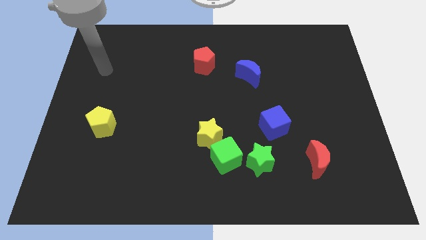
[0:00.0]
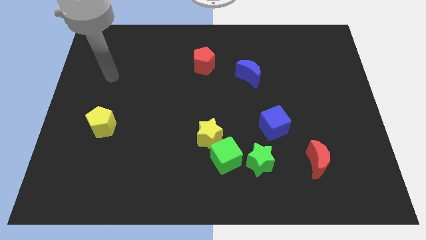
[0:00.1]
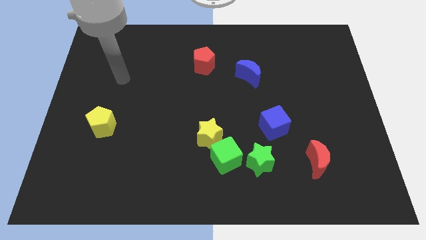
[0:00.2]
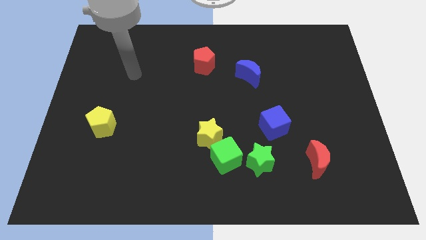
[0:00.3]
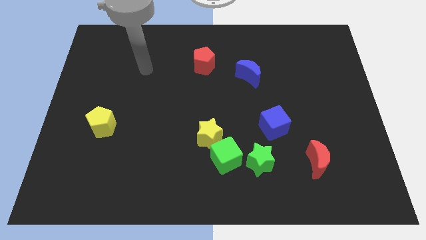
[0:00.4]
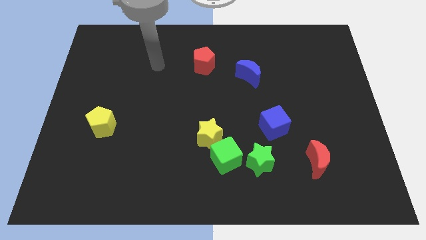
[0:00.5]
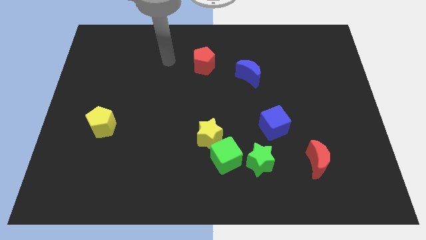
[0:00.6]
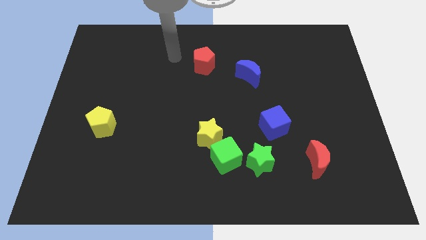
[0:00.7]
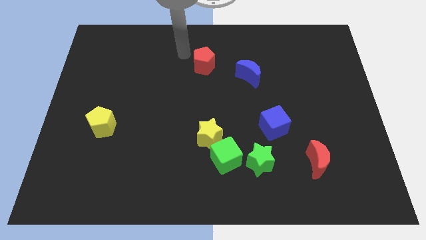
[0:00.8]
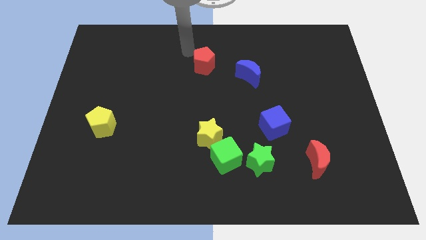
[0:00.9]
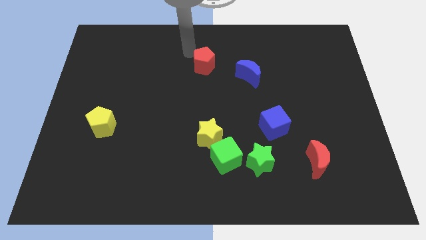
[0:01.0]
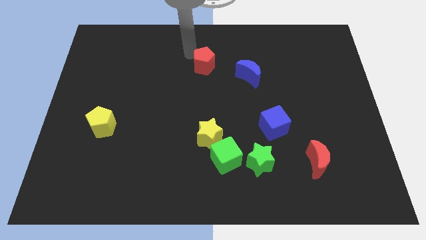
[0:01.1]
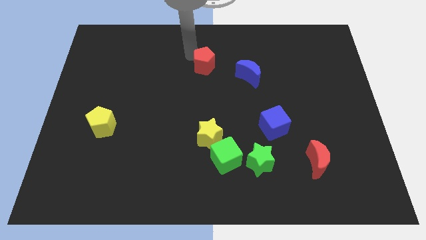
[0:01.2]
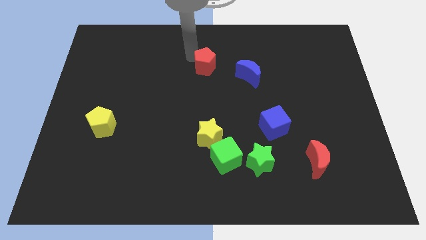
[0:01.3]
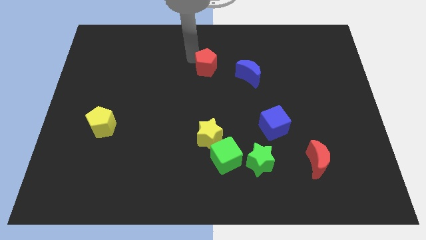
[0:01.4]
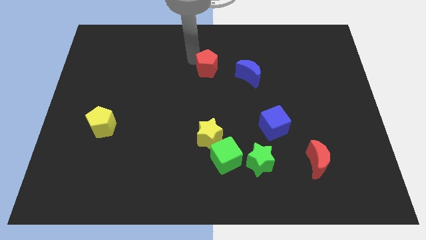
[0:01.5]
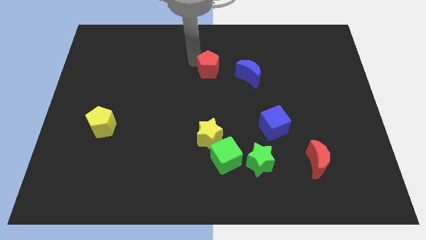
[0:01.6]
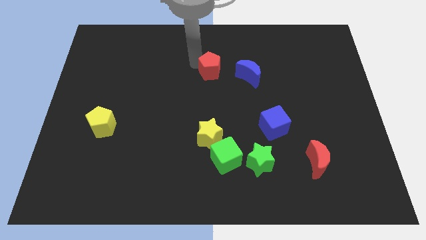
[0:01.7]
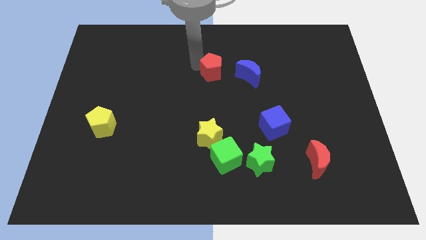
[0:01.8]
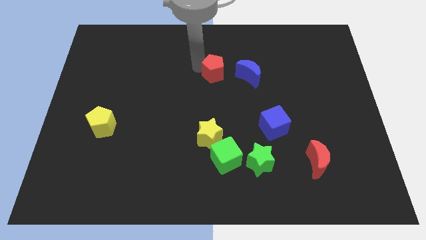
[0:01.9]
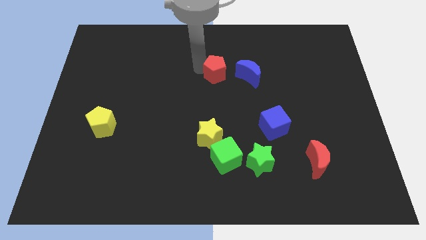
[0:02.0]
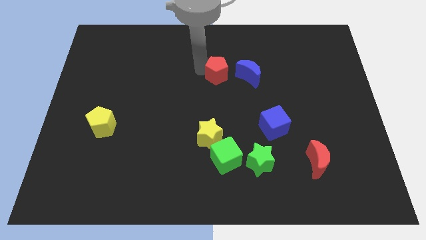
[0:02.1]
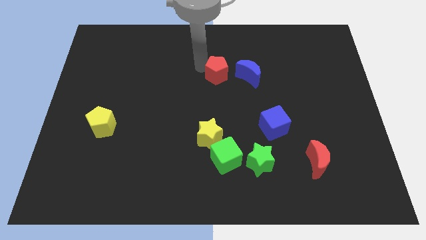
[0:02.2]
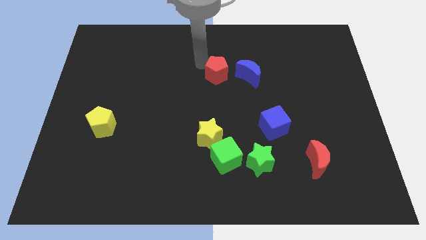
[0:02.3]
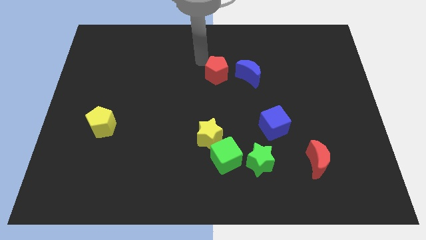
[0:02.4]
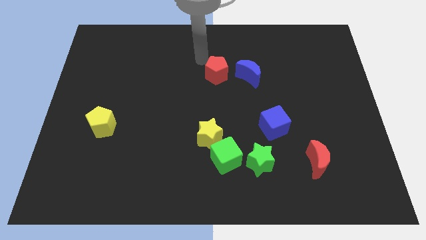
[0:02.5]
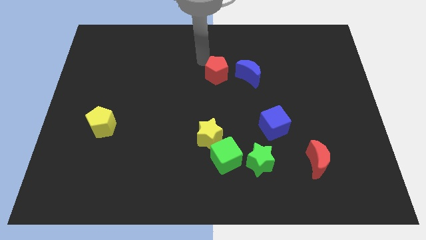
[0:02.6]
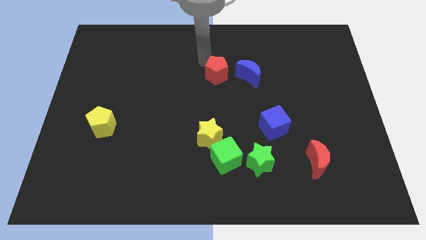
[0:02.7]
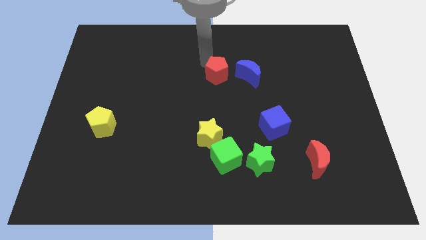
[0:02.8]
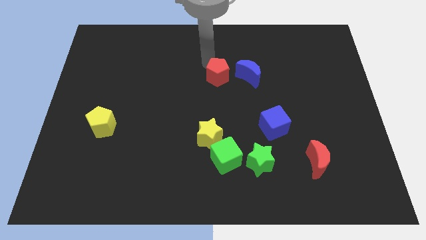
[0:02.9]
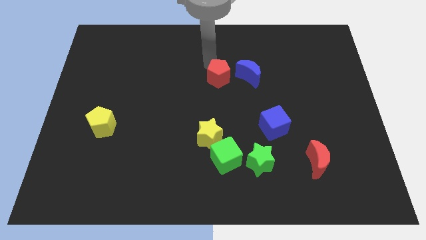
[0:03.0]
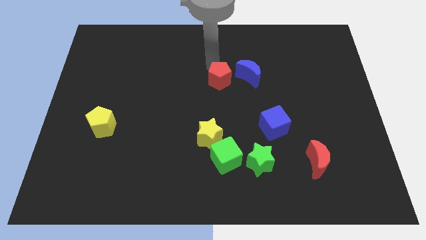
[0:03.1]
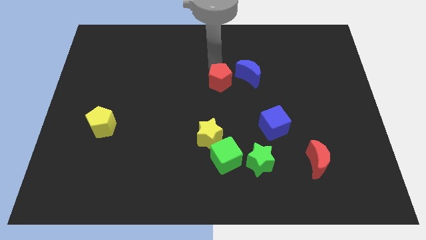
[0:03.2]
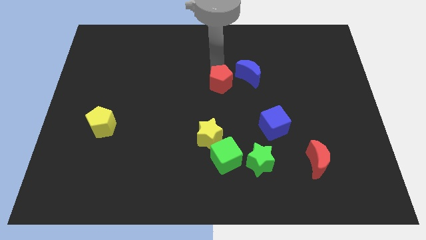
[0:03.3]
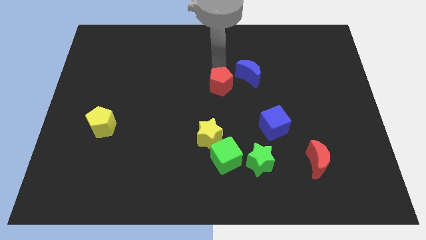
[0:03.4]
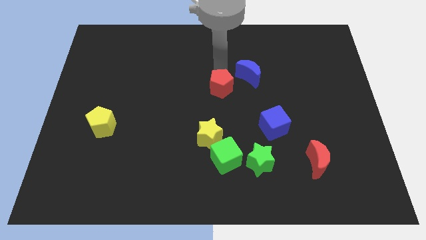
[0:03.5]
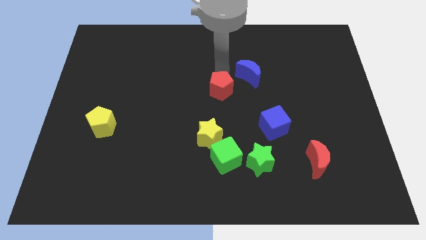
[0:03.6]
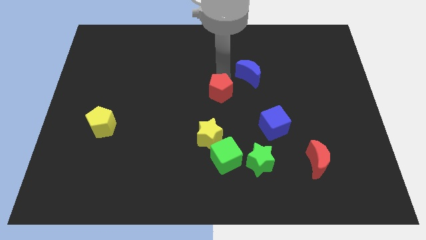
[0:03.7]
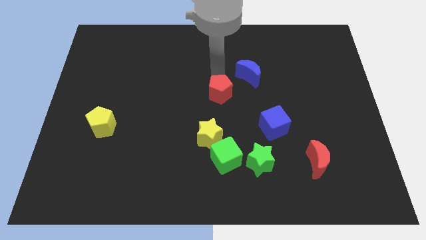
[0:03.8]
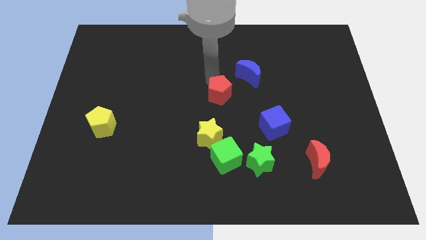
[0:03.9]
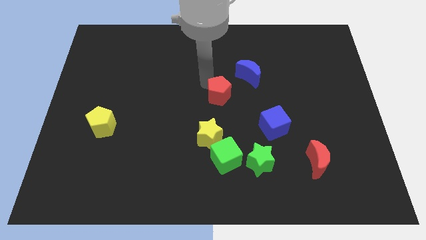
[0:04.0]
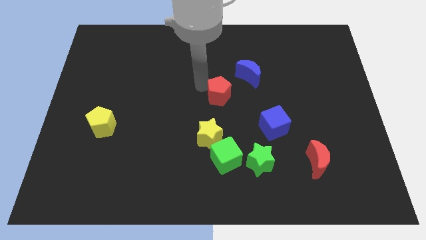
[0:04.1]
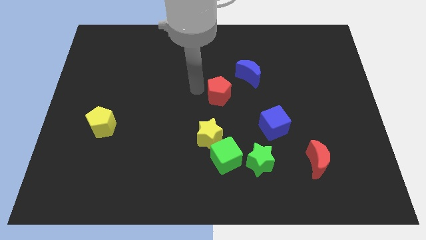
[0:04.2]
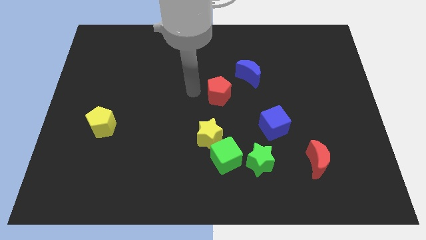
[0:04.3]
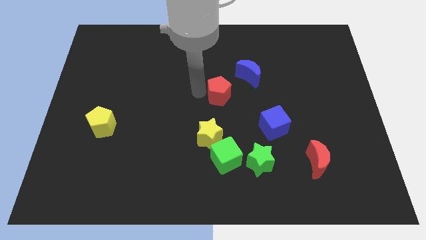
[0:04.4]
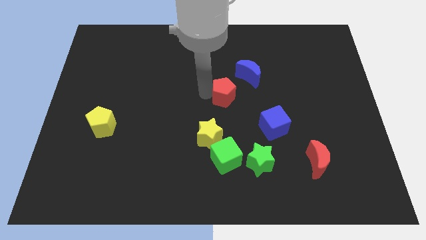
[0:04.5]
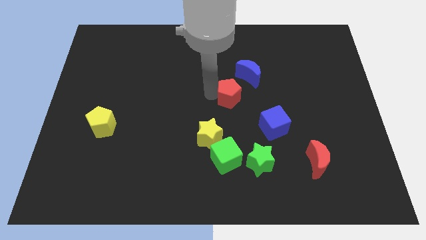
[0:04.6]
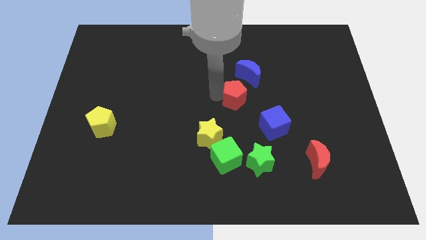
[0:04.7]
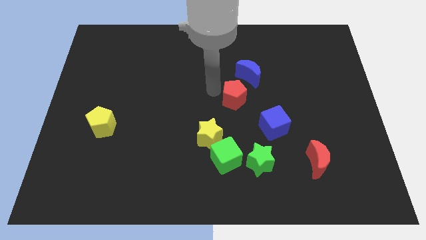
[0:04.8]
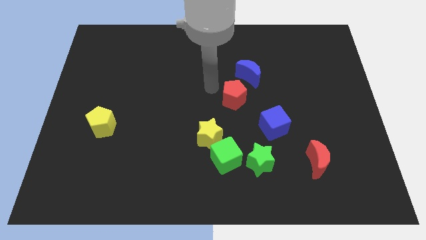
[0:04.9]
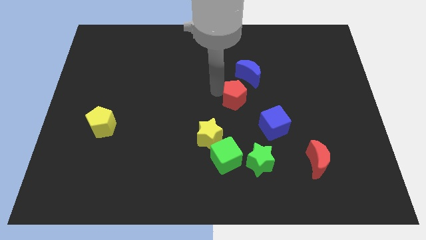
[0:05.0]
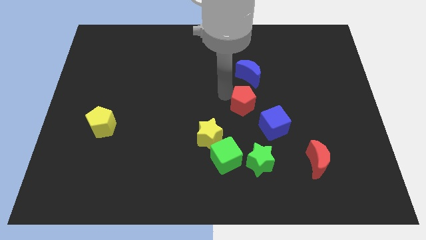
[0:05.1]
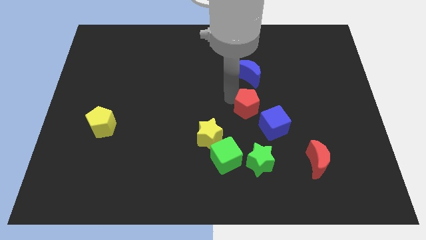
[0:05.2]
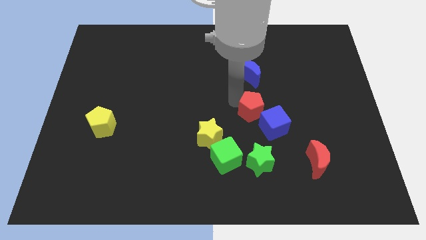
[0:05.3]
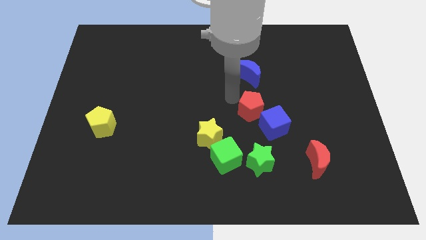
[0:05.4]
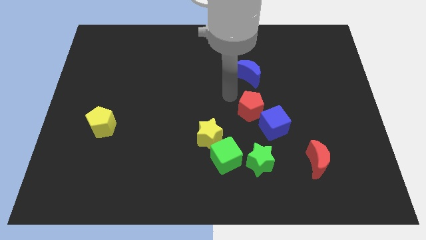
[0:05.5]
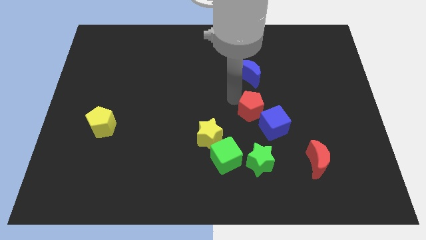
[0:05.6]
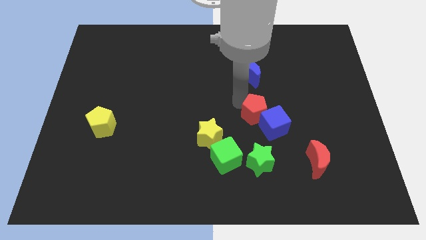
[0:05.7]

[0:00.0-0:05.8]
slide the red pentagon next to the blue cube

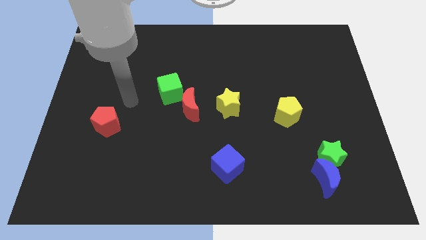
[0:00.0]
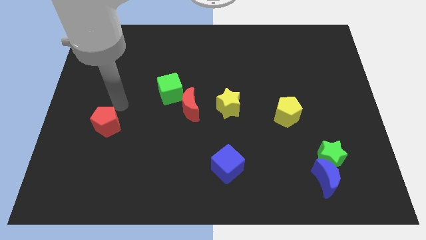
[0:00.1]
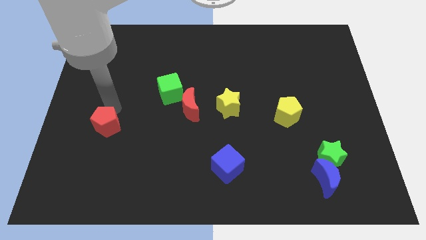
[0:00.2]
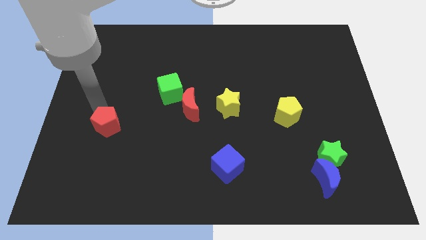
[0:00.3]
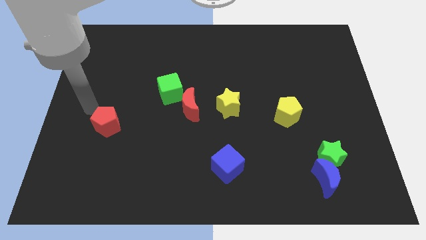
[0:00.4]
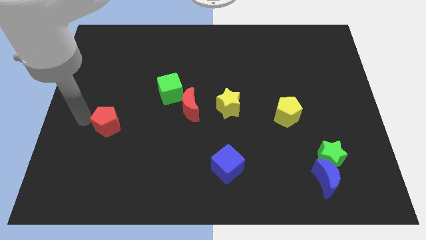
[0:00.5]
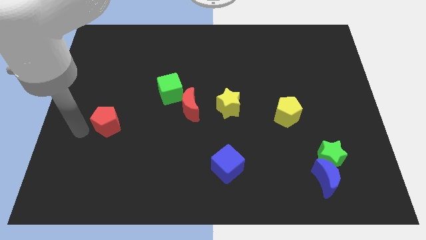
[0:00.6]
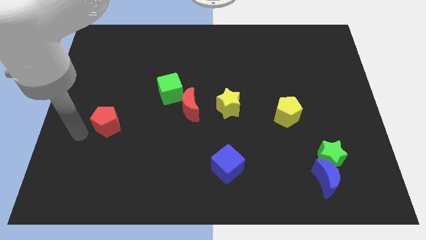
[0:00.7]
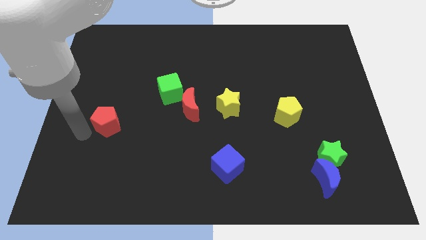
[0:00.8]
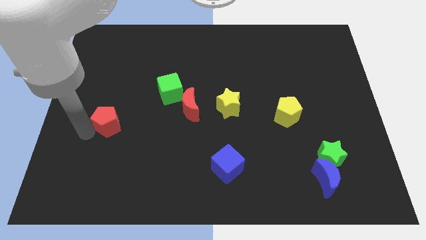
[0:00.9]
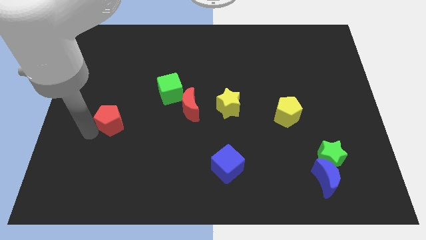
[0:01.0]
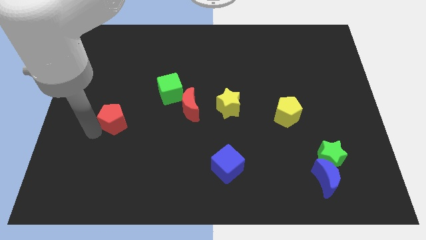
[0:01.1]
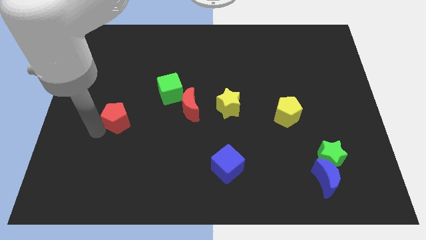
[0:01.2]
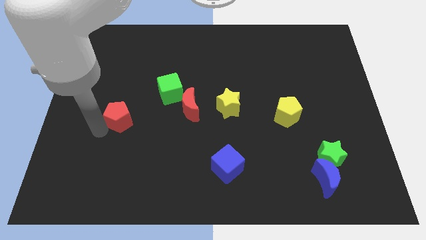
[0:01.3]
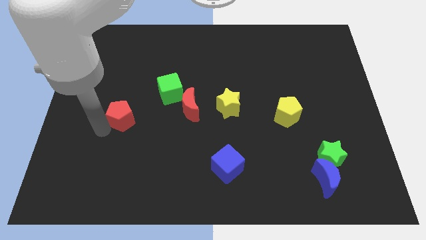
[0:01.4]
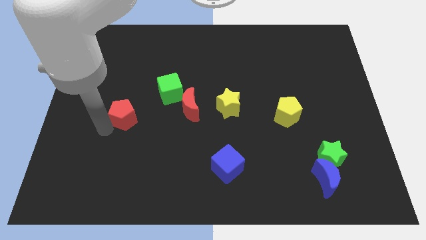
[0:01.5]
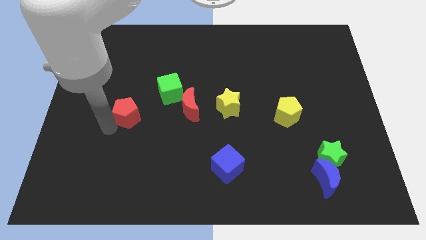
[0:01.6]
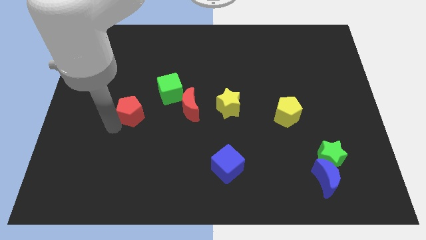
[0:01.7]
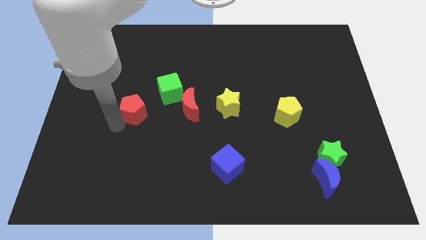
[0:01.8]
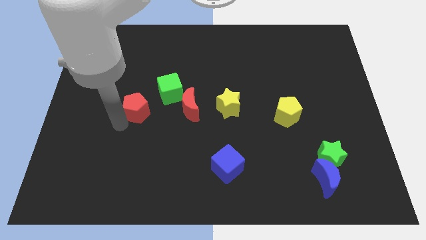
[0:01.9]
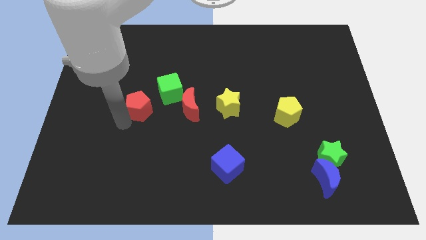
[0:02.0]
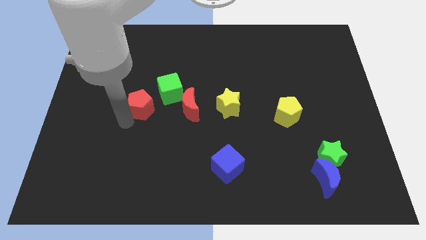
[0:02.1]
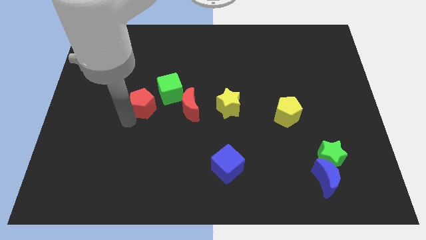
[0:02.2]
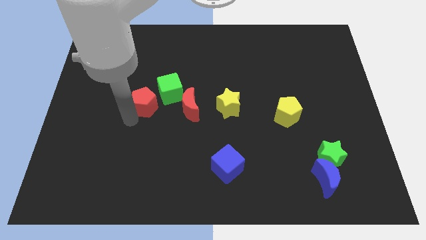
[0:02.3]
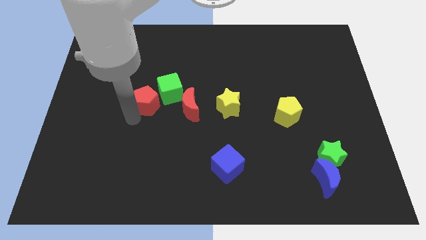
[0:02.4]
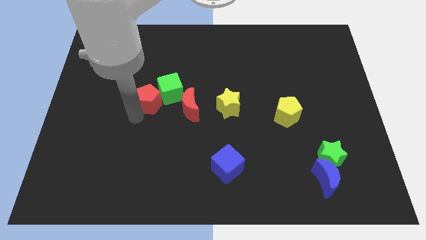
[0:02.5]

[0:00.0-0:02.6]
move the red pentagon next to the green cube
